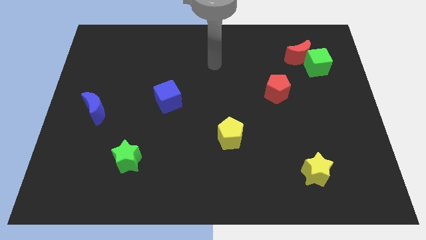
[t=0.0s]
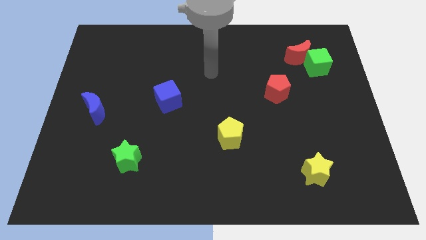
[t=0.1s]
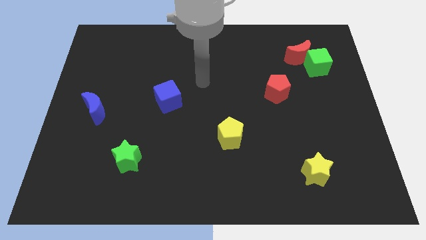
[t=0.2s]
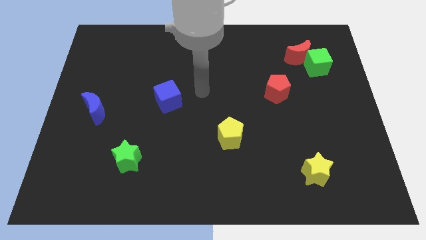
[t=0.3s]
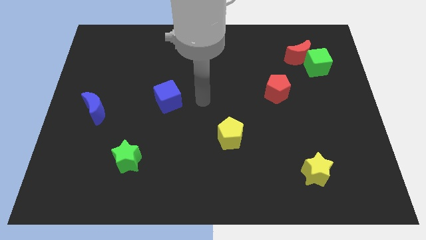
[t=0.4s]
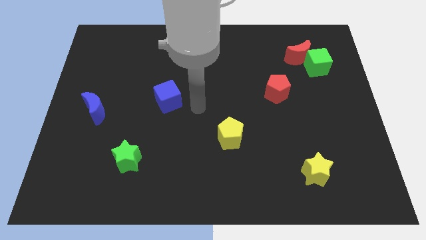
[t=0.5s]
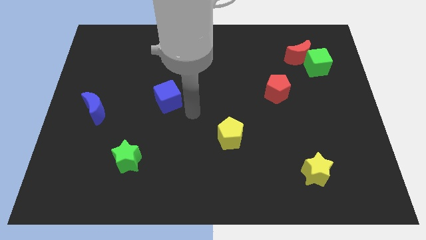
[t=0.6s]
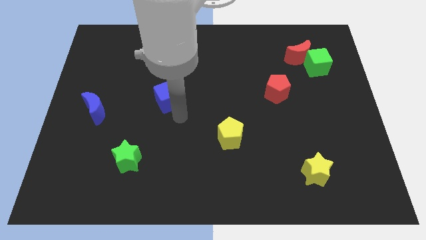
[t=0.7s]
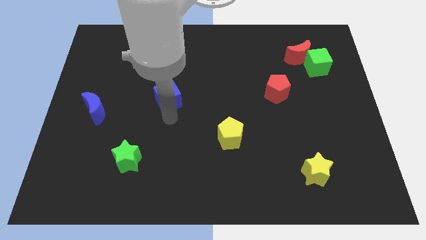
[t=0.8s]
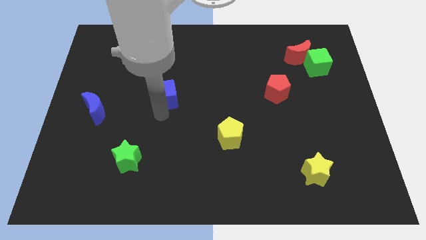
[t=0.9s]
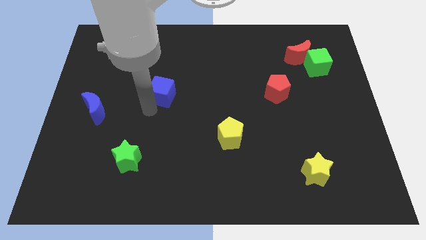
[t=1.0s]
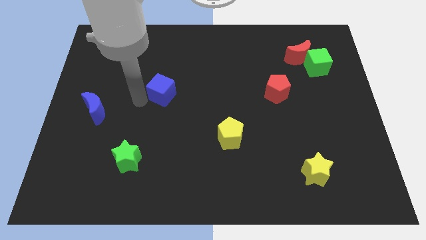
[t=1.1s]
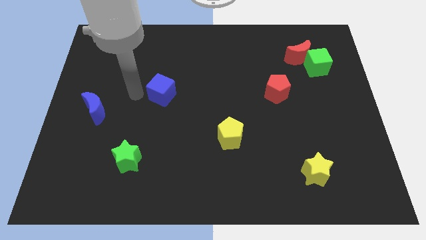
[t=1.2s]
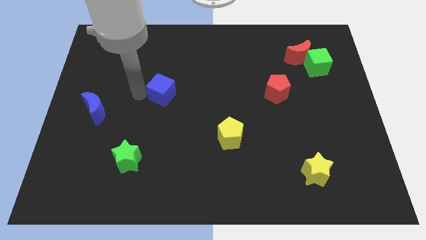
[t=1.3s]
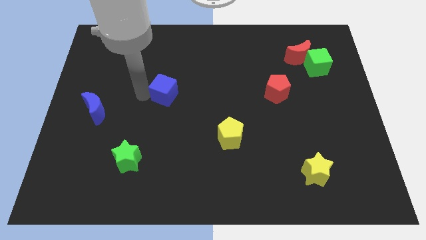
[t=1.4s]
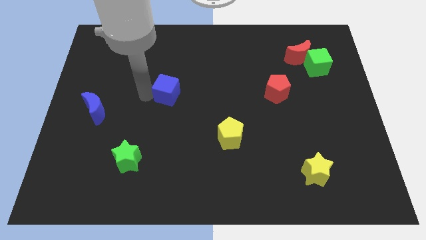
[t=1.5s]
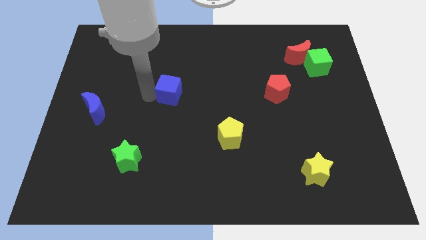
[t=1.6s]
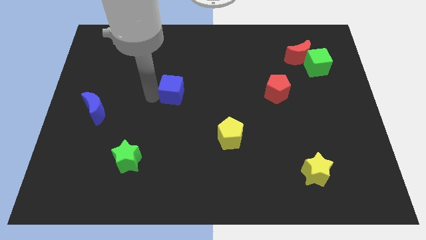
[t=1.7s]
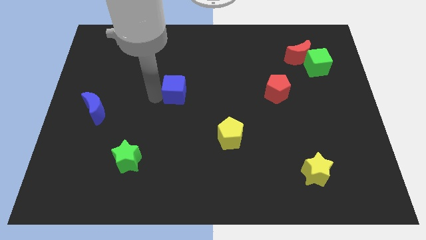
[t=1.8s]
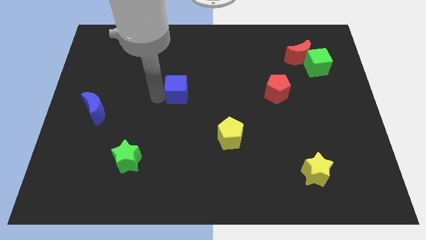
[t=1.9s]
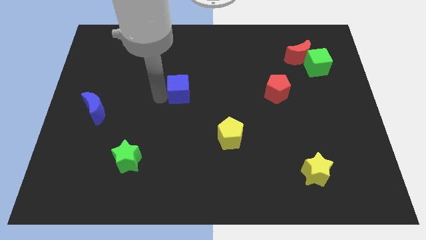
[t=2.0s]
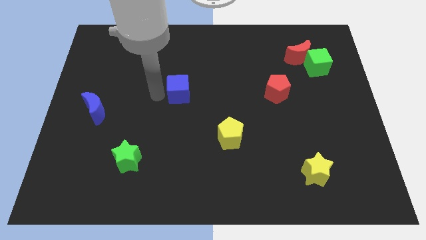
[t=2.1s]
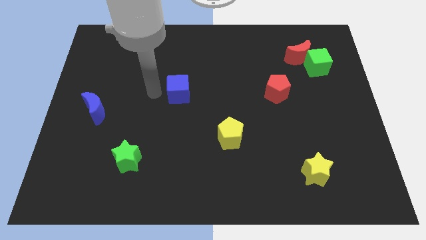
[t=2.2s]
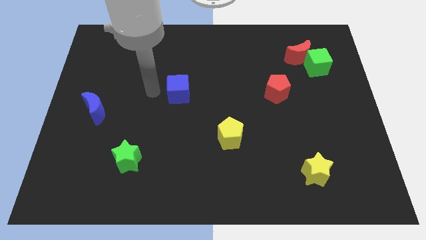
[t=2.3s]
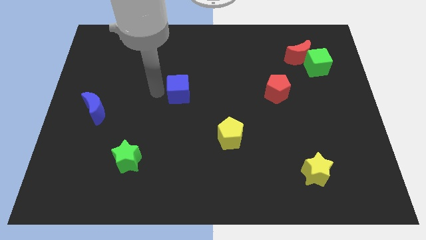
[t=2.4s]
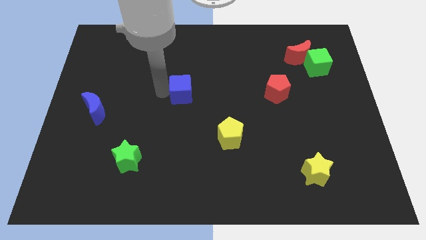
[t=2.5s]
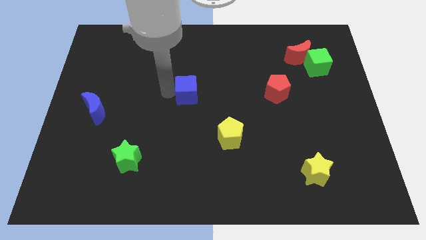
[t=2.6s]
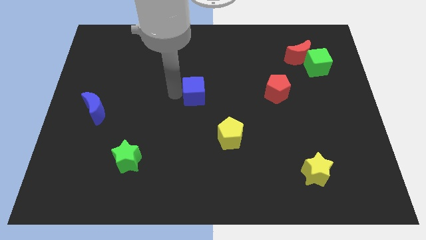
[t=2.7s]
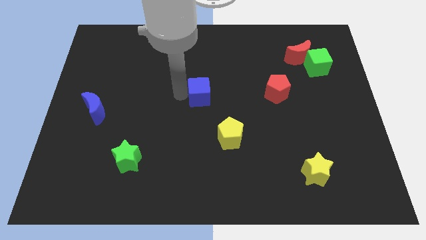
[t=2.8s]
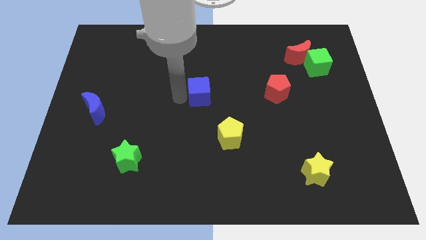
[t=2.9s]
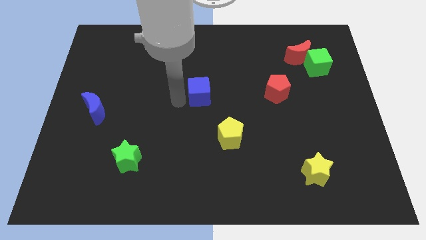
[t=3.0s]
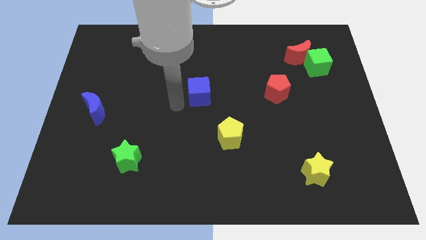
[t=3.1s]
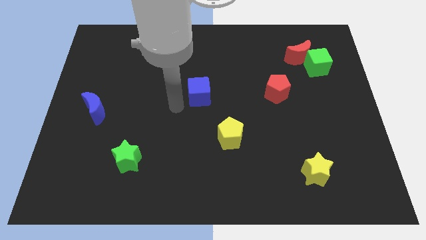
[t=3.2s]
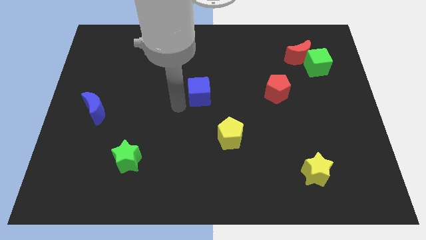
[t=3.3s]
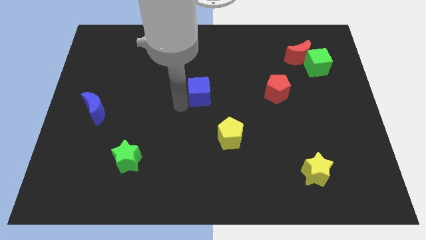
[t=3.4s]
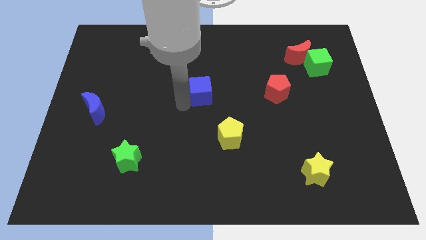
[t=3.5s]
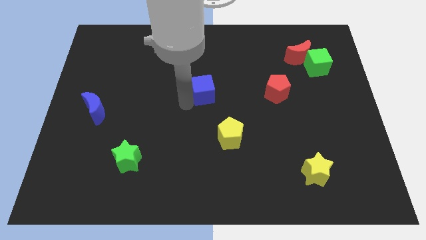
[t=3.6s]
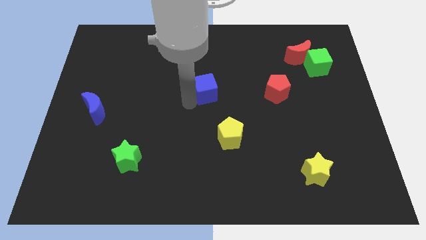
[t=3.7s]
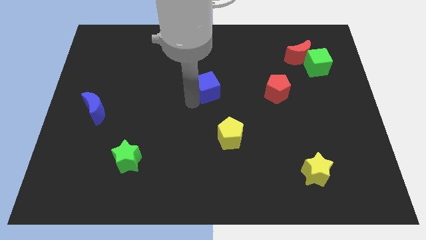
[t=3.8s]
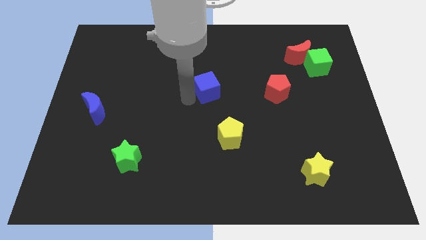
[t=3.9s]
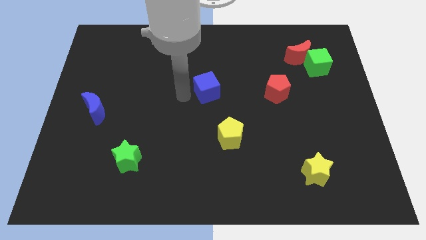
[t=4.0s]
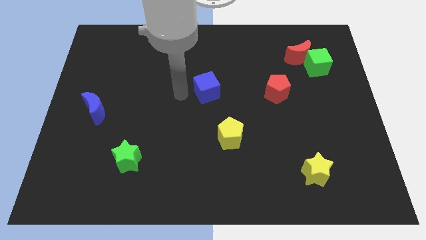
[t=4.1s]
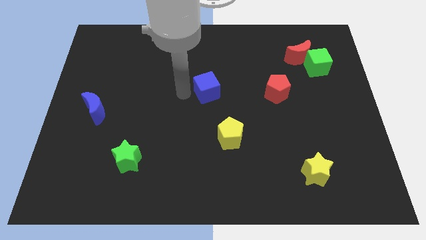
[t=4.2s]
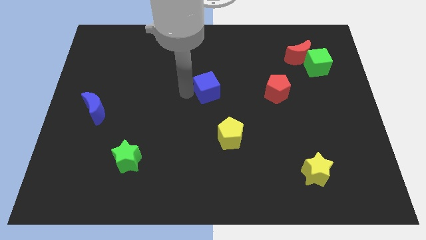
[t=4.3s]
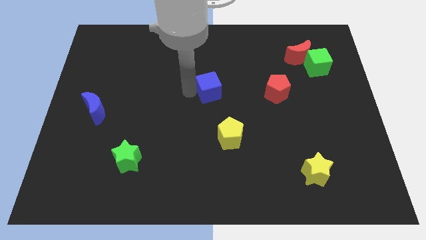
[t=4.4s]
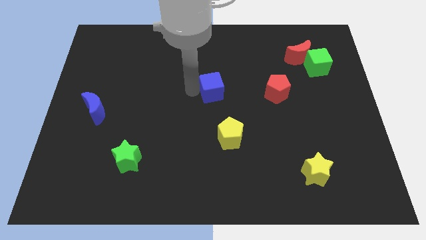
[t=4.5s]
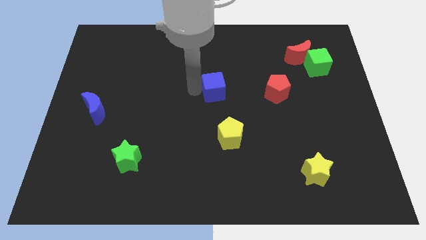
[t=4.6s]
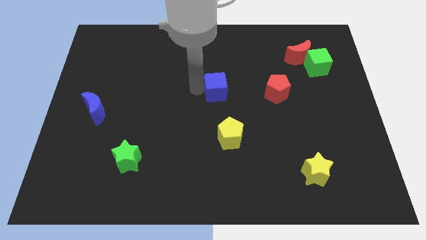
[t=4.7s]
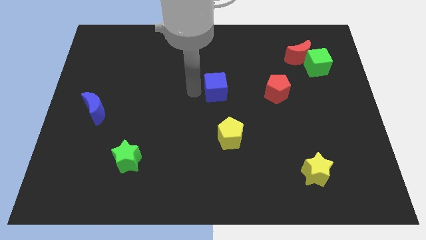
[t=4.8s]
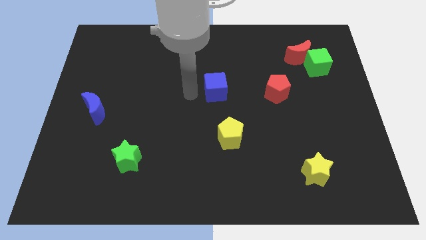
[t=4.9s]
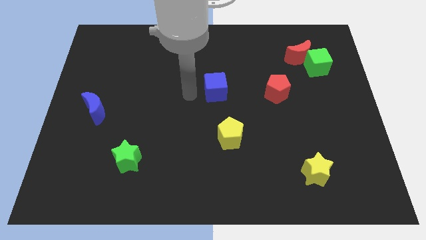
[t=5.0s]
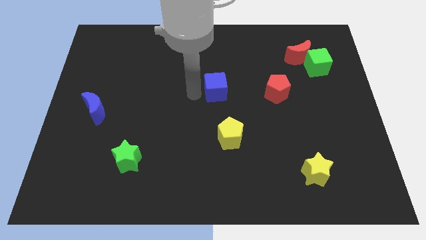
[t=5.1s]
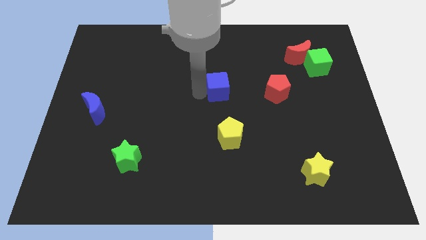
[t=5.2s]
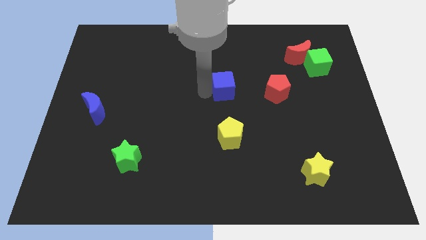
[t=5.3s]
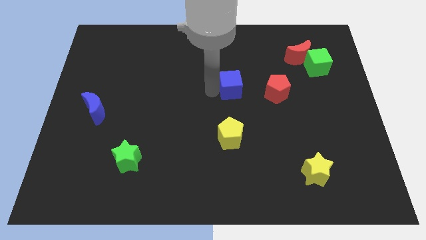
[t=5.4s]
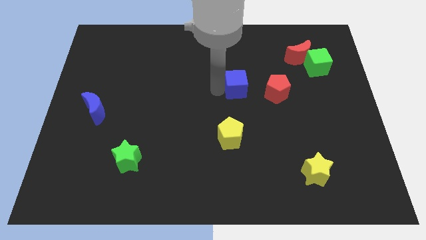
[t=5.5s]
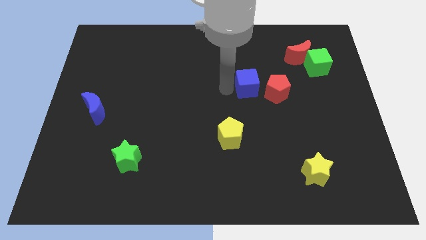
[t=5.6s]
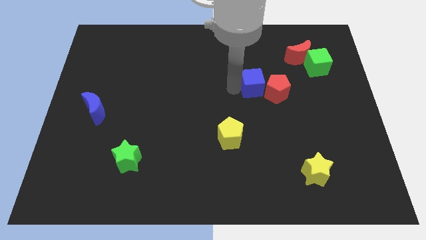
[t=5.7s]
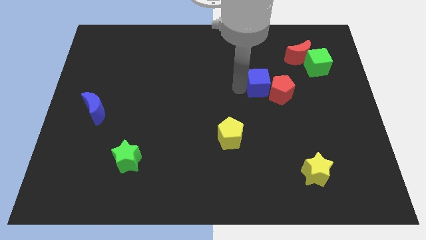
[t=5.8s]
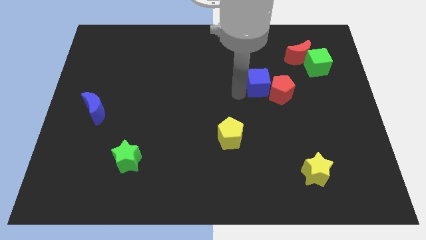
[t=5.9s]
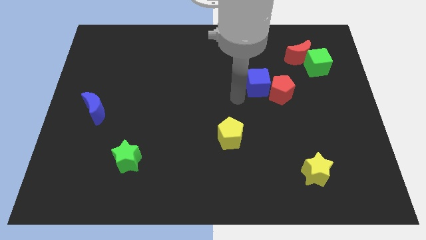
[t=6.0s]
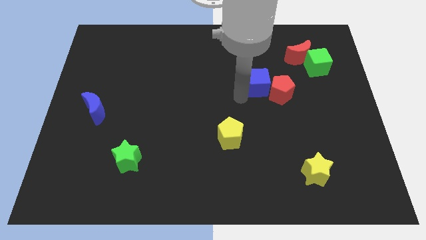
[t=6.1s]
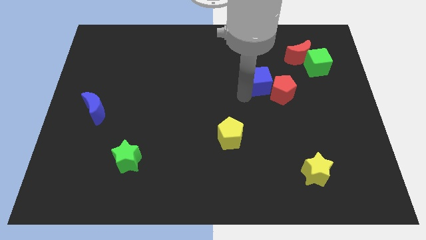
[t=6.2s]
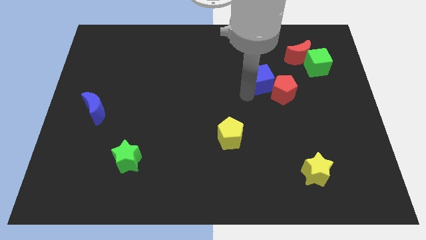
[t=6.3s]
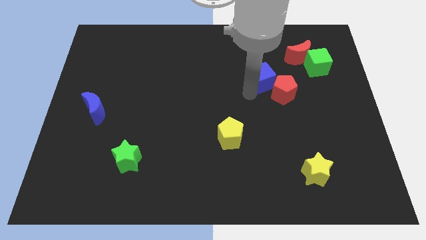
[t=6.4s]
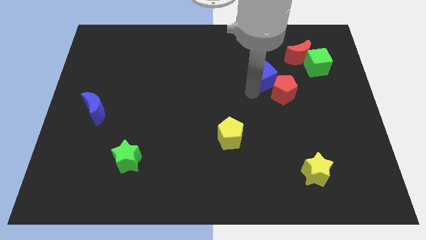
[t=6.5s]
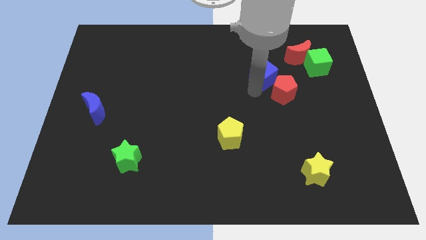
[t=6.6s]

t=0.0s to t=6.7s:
push the blue cube to the bottom left side of the red moon
